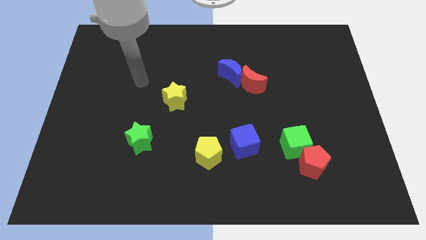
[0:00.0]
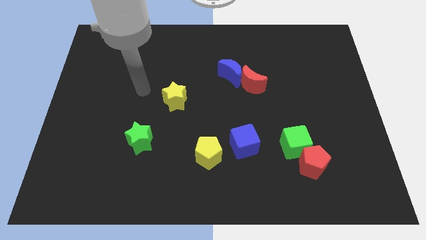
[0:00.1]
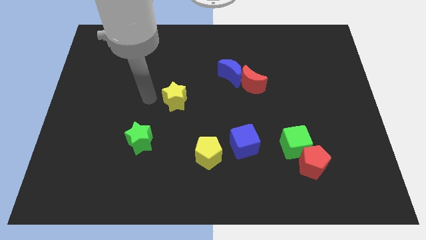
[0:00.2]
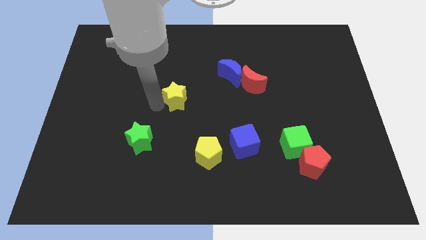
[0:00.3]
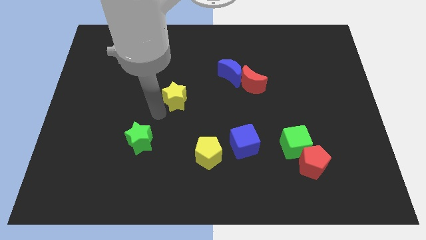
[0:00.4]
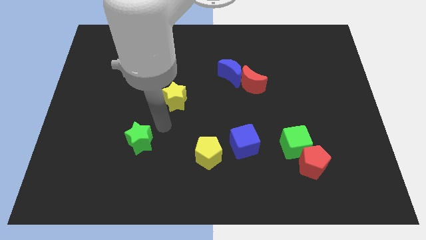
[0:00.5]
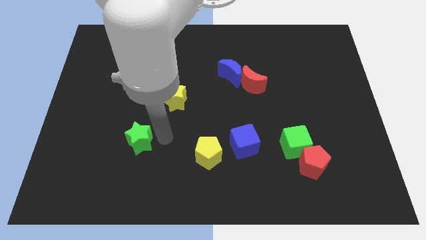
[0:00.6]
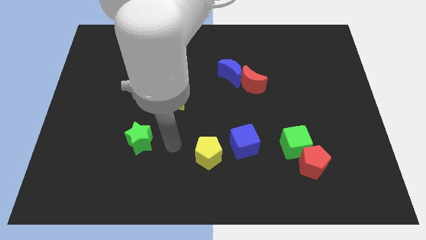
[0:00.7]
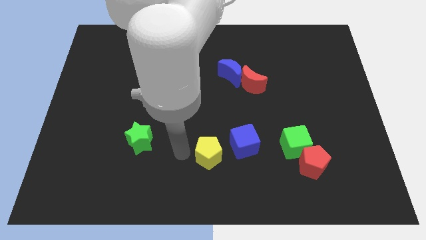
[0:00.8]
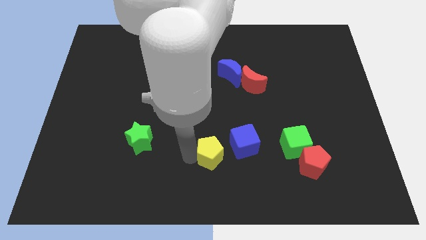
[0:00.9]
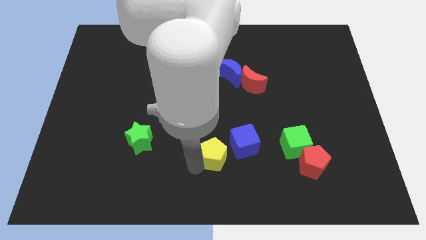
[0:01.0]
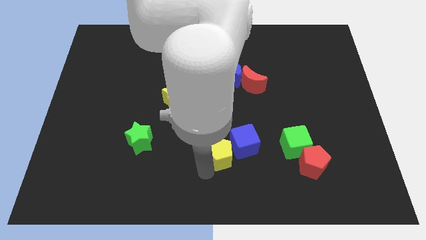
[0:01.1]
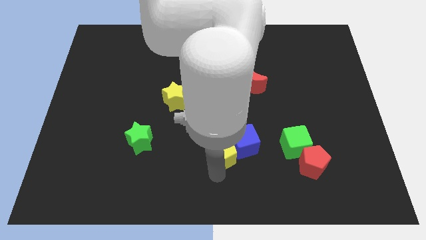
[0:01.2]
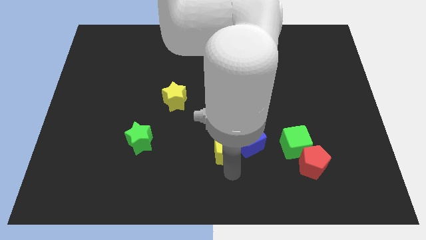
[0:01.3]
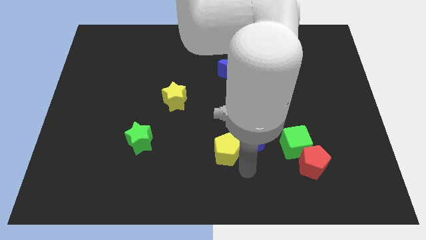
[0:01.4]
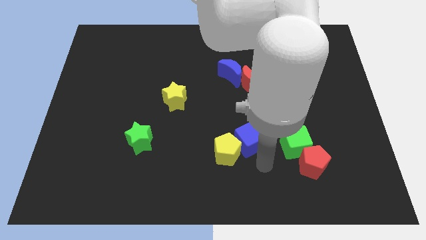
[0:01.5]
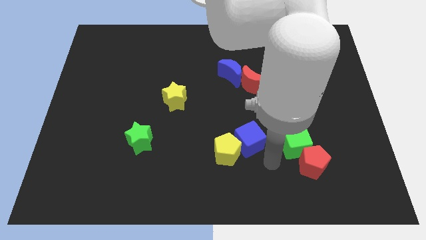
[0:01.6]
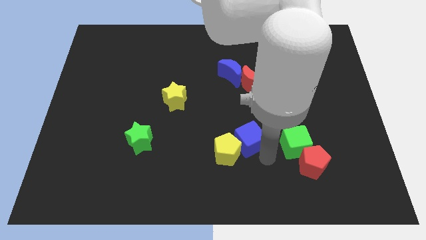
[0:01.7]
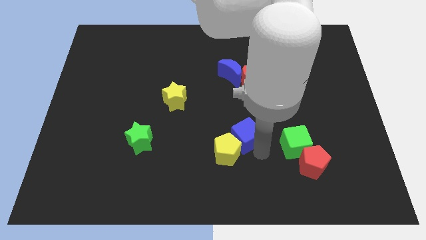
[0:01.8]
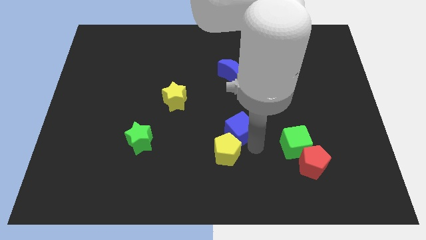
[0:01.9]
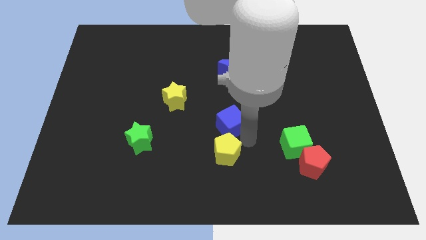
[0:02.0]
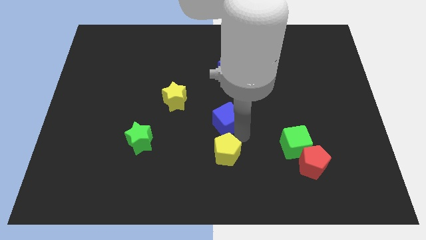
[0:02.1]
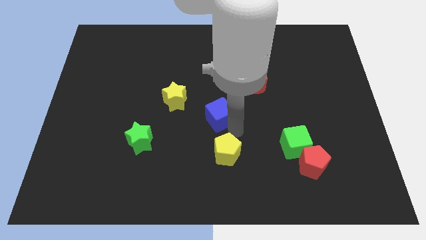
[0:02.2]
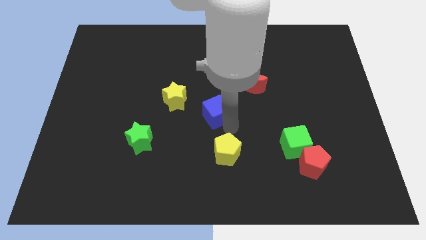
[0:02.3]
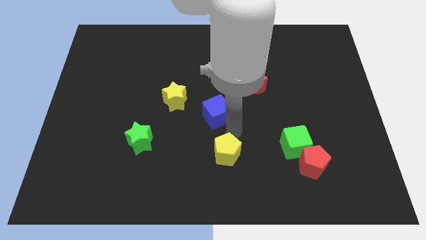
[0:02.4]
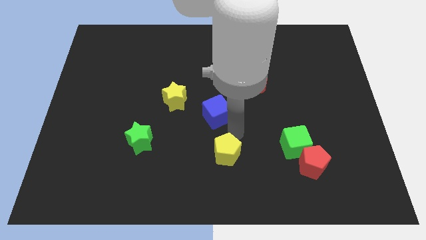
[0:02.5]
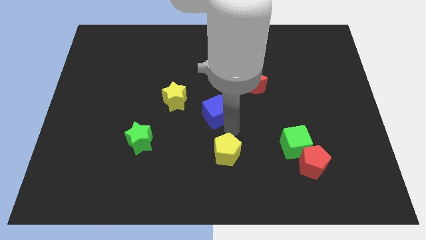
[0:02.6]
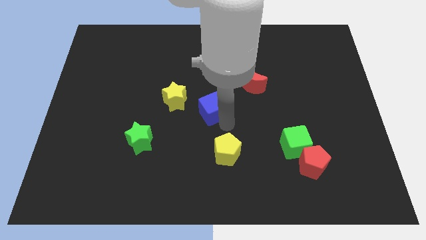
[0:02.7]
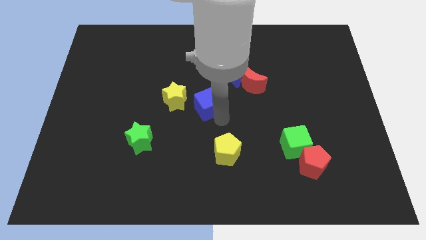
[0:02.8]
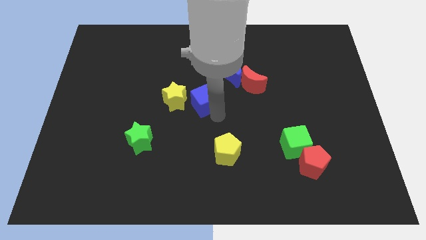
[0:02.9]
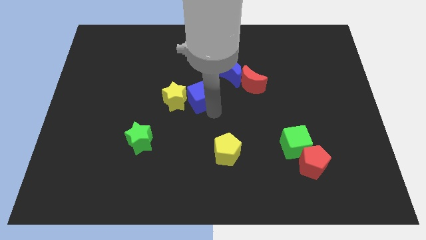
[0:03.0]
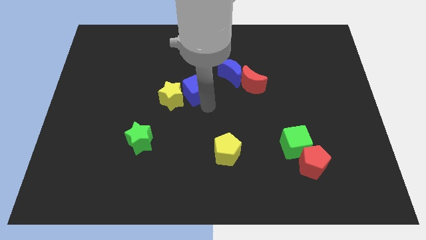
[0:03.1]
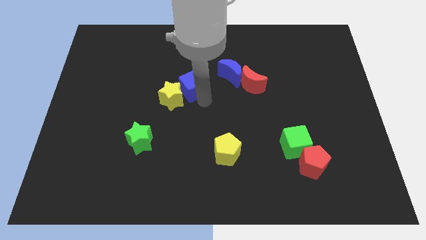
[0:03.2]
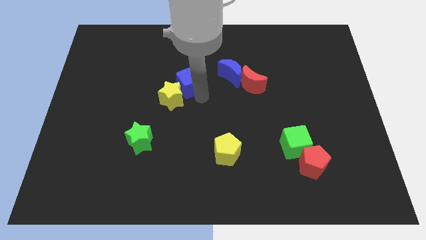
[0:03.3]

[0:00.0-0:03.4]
push the blue cube upwards and left

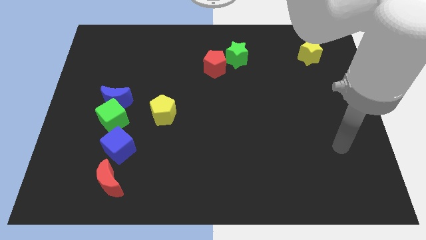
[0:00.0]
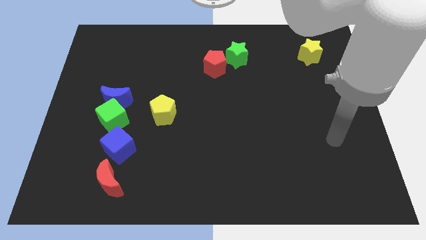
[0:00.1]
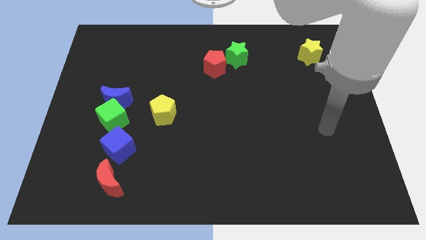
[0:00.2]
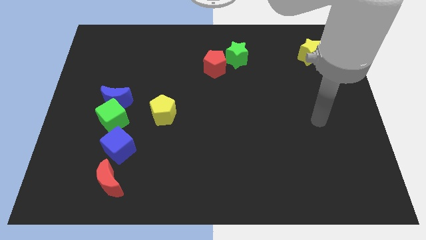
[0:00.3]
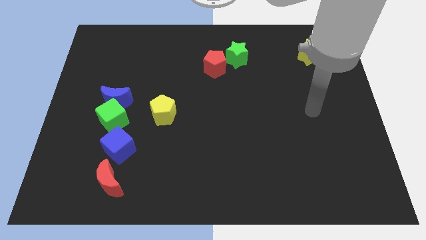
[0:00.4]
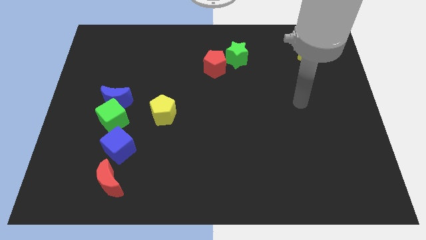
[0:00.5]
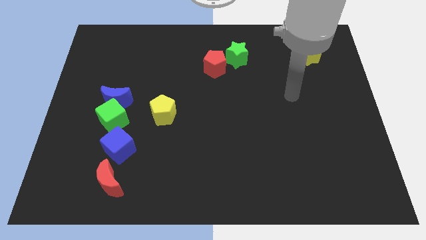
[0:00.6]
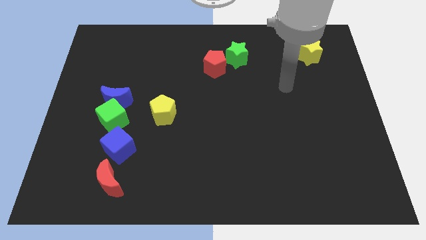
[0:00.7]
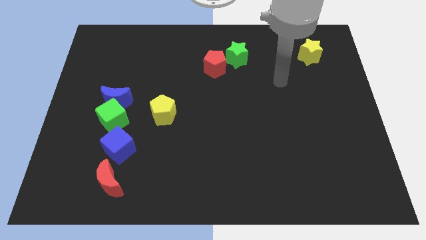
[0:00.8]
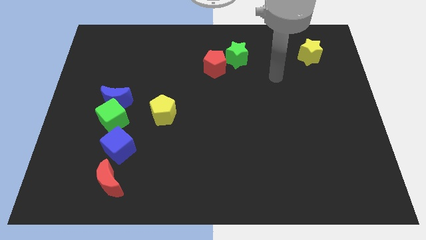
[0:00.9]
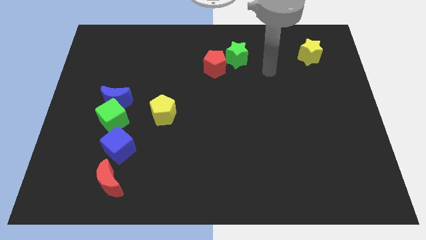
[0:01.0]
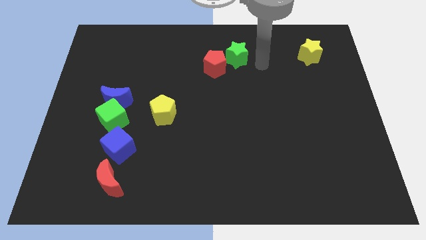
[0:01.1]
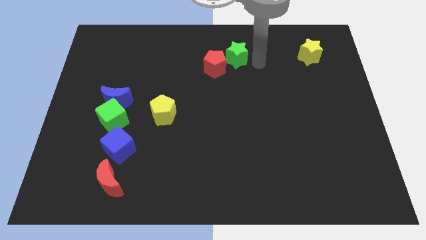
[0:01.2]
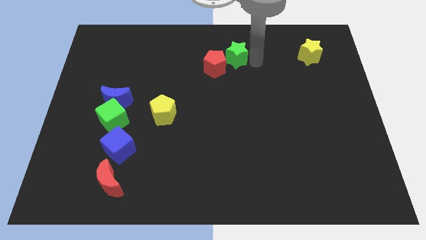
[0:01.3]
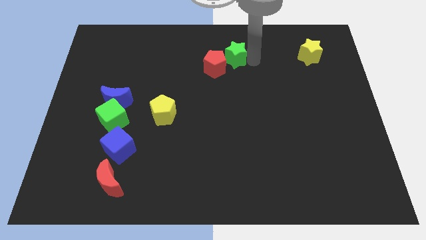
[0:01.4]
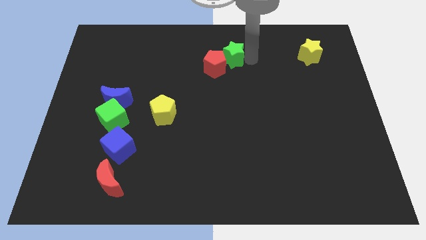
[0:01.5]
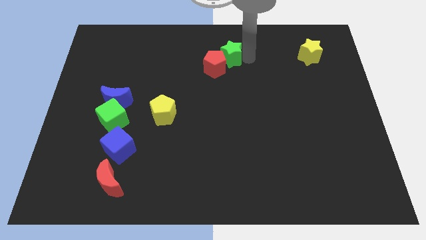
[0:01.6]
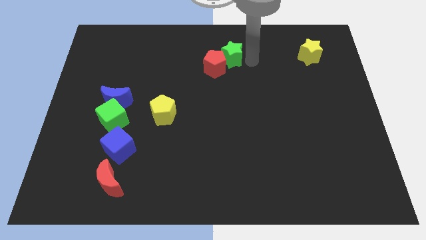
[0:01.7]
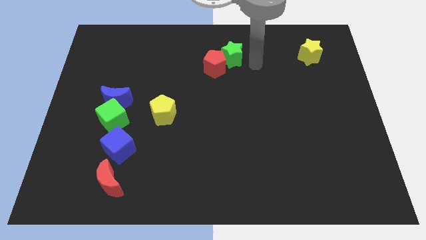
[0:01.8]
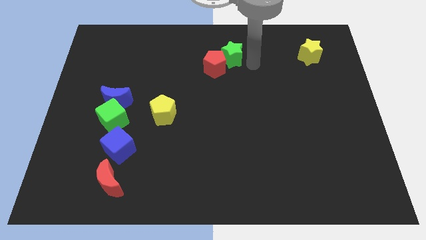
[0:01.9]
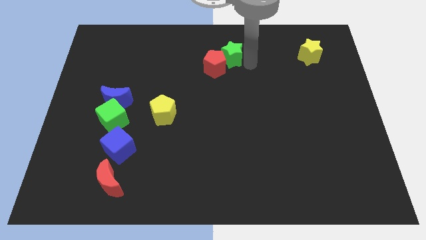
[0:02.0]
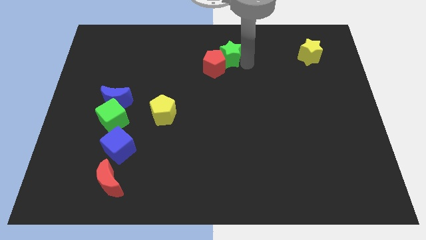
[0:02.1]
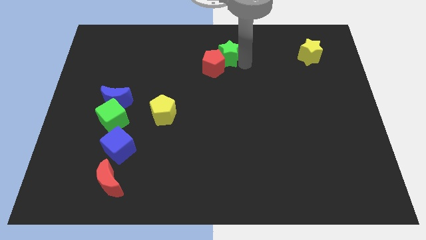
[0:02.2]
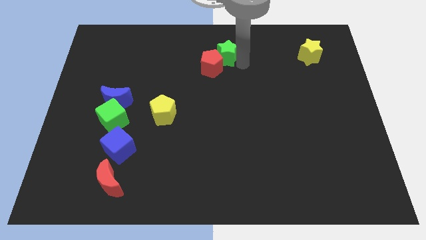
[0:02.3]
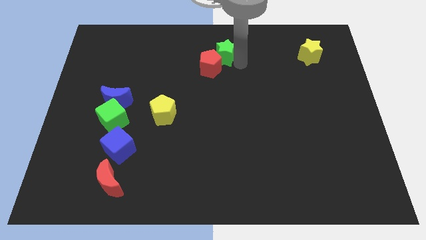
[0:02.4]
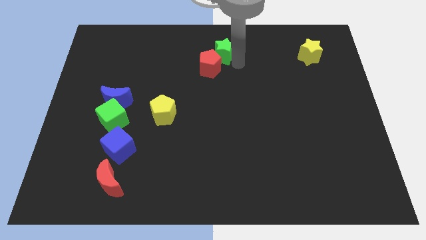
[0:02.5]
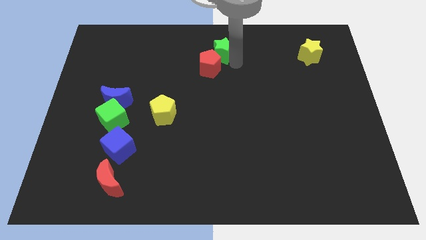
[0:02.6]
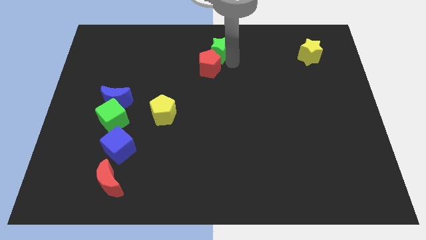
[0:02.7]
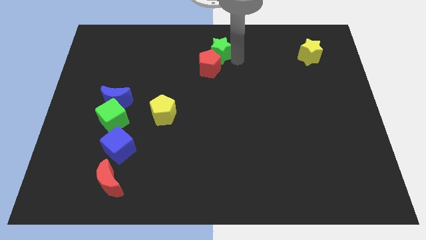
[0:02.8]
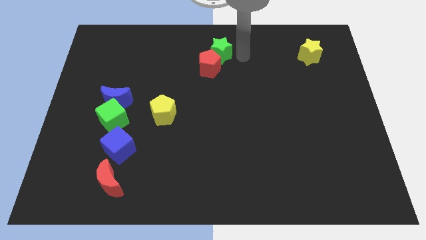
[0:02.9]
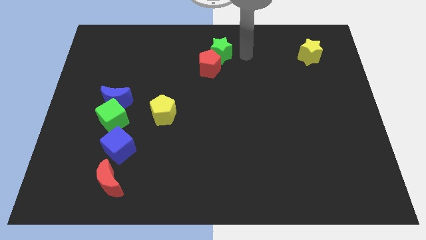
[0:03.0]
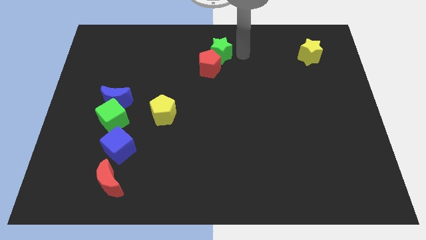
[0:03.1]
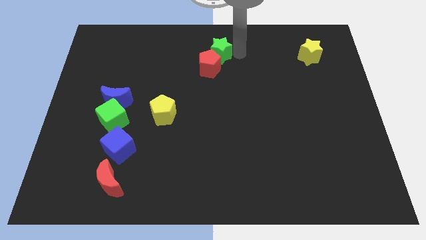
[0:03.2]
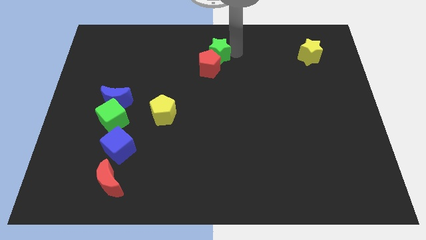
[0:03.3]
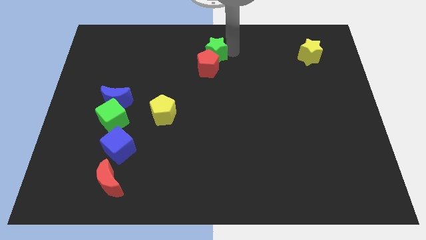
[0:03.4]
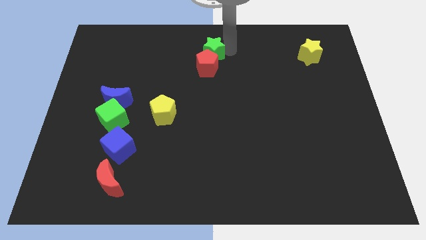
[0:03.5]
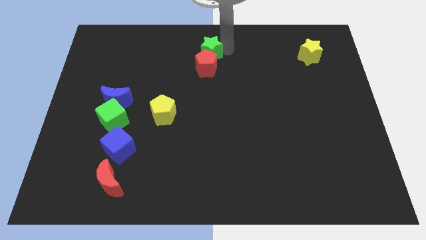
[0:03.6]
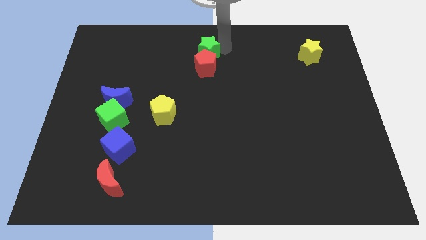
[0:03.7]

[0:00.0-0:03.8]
slightly move the green star to the left

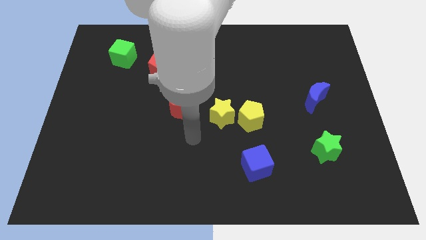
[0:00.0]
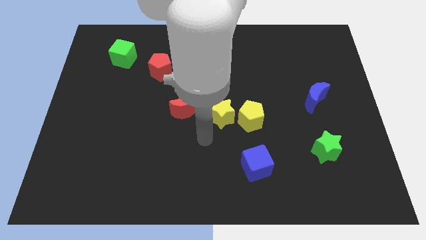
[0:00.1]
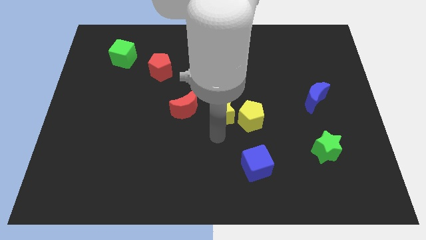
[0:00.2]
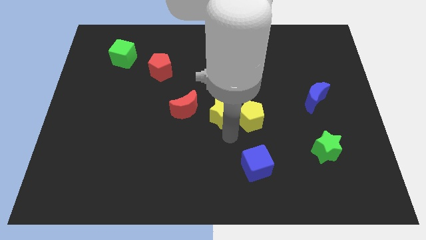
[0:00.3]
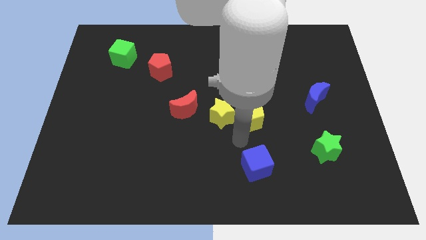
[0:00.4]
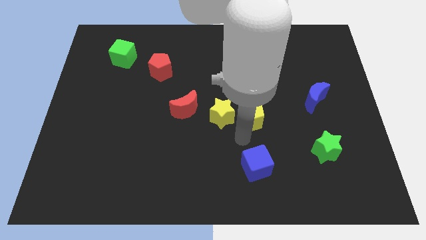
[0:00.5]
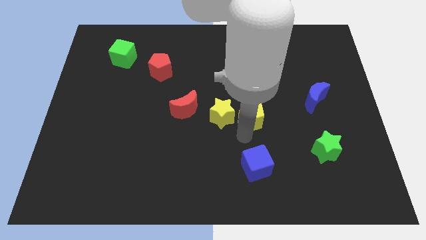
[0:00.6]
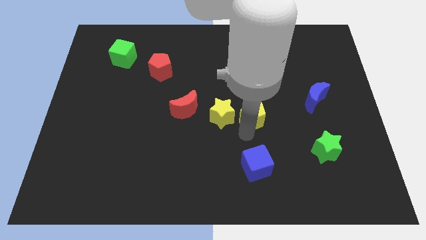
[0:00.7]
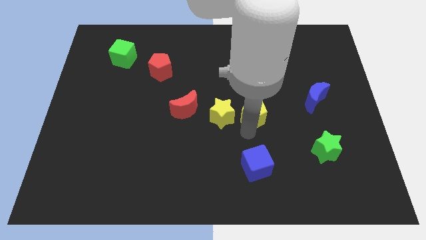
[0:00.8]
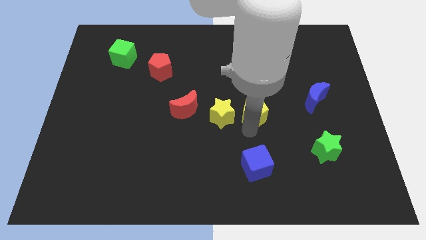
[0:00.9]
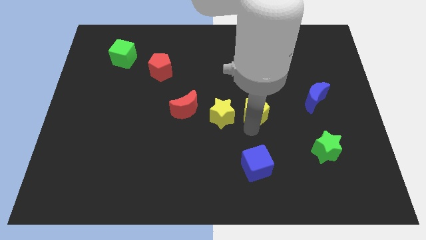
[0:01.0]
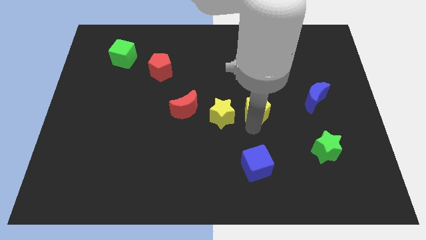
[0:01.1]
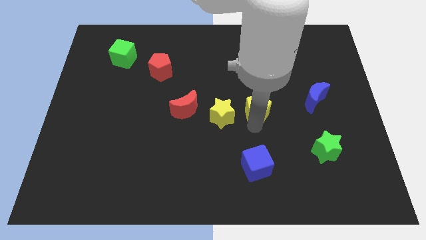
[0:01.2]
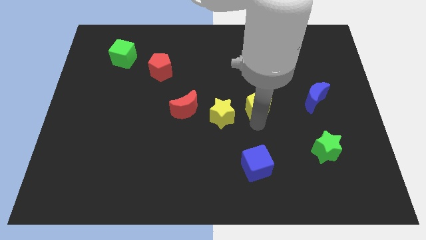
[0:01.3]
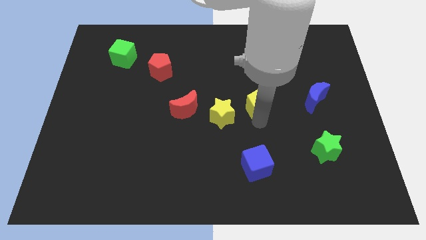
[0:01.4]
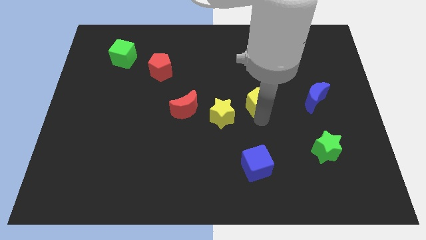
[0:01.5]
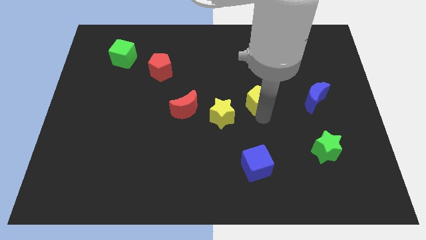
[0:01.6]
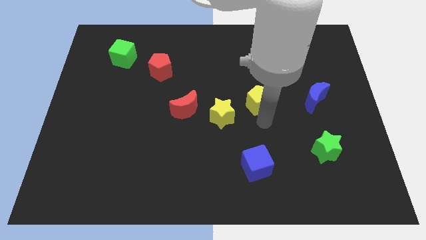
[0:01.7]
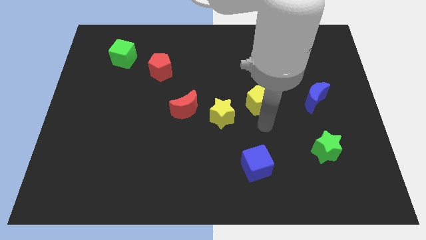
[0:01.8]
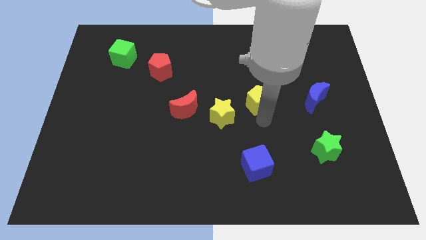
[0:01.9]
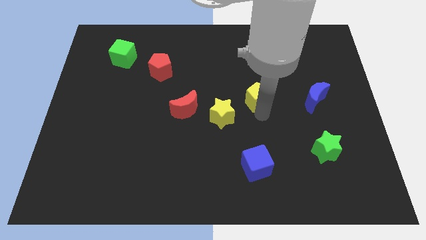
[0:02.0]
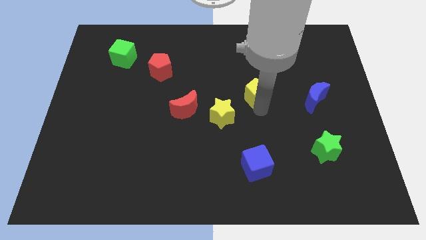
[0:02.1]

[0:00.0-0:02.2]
slightly slide the yellow pentagon upwards
